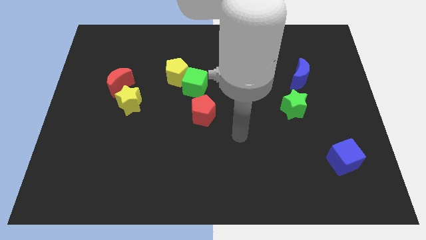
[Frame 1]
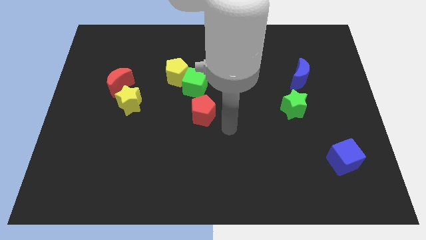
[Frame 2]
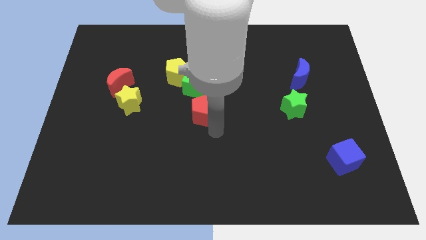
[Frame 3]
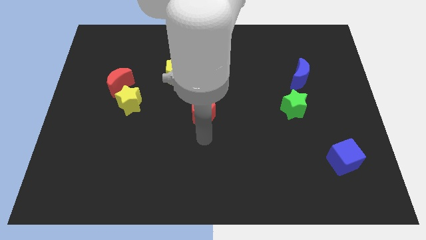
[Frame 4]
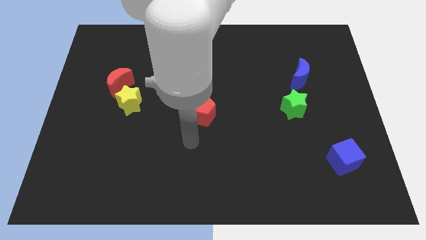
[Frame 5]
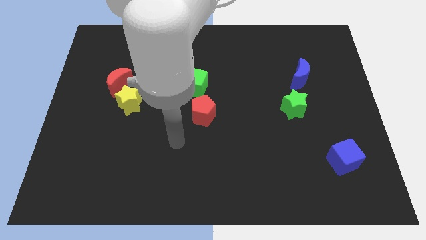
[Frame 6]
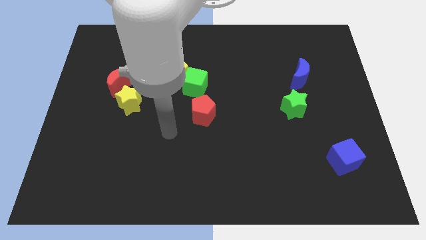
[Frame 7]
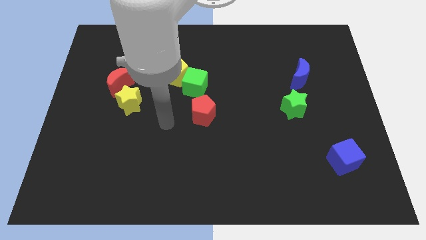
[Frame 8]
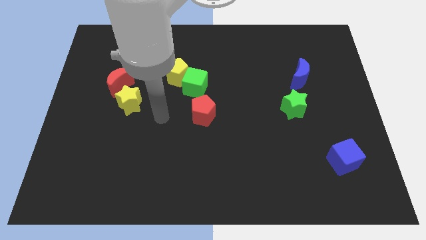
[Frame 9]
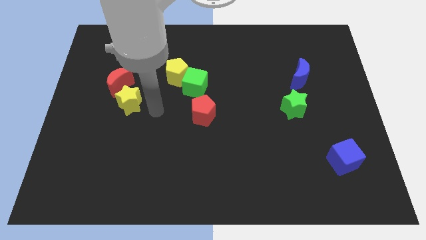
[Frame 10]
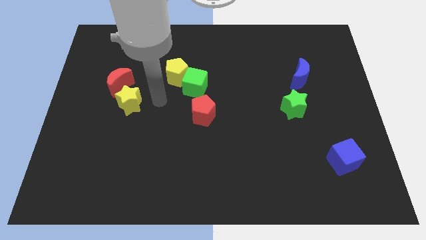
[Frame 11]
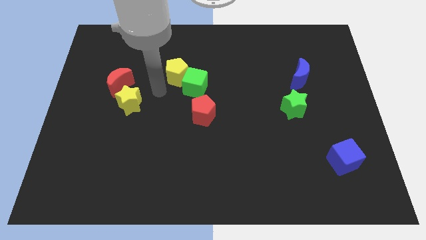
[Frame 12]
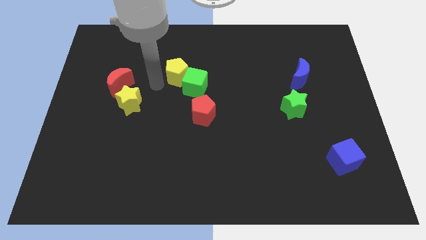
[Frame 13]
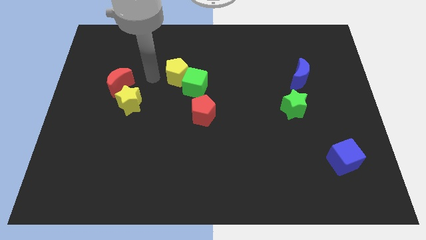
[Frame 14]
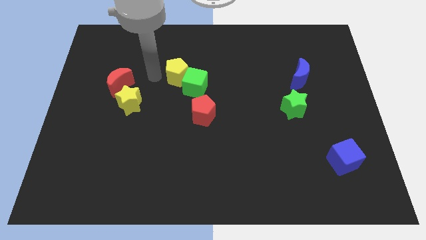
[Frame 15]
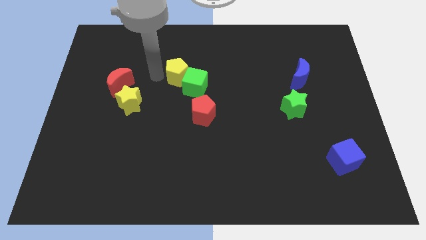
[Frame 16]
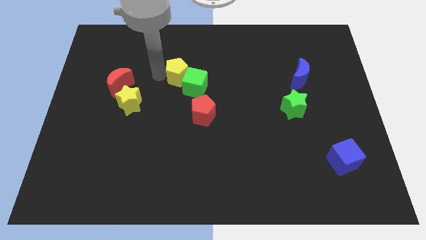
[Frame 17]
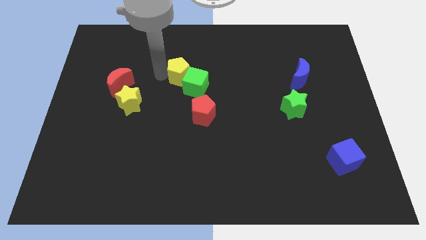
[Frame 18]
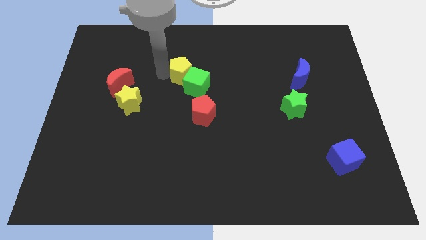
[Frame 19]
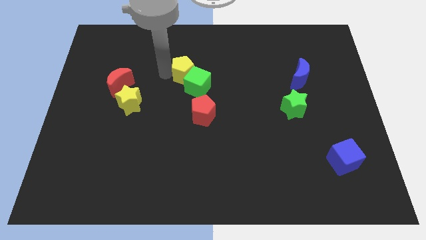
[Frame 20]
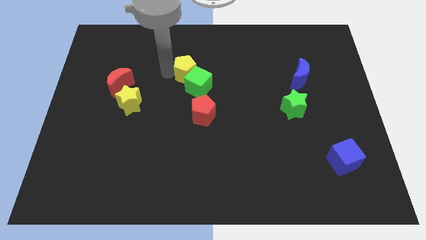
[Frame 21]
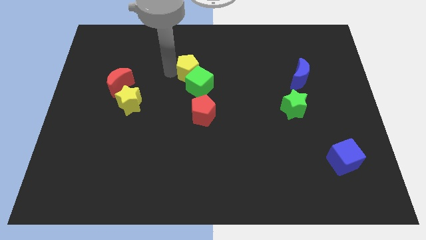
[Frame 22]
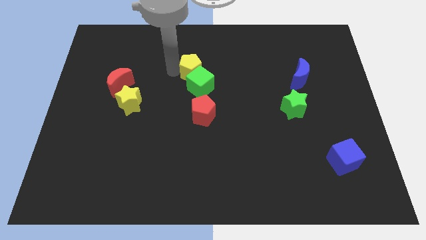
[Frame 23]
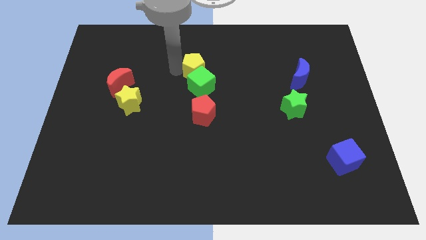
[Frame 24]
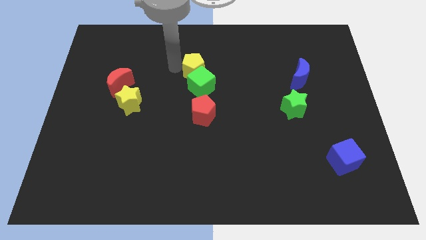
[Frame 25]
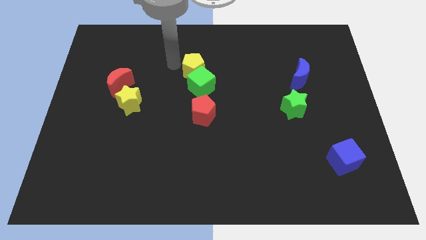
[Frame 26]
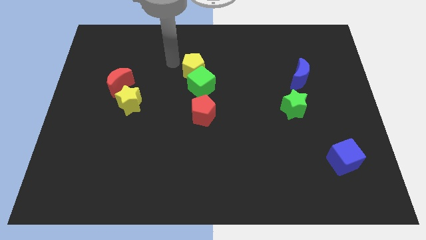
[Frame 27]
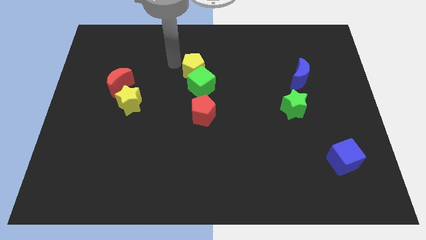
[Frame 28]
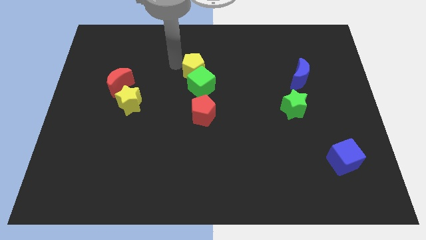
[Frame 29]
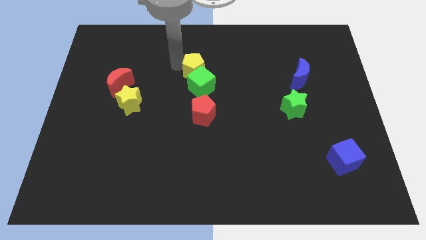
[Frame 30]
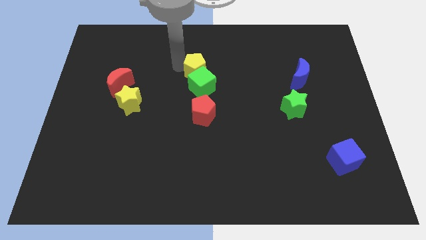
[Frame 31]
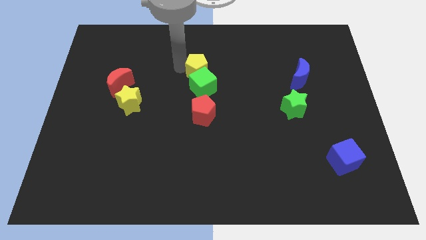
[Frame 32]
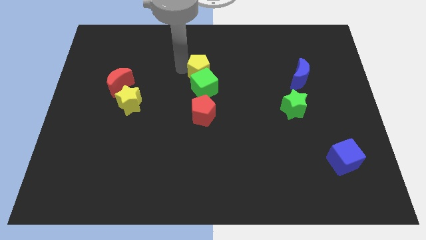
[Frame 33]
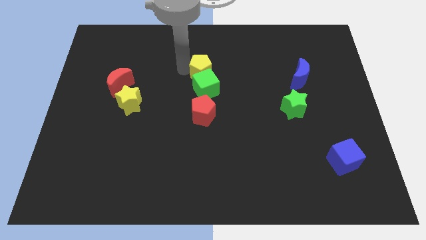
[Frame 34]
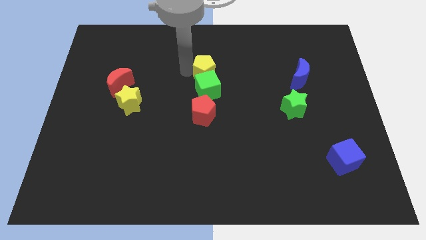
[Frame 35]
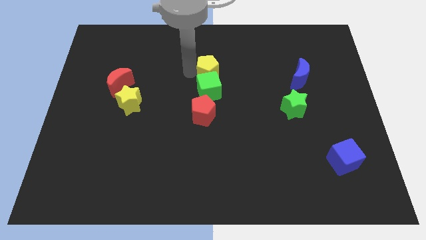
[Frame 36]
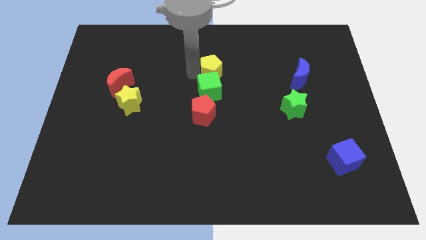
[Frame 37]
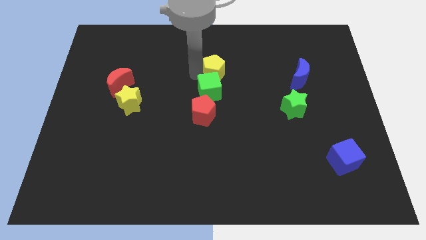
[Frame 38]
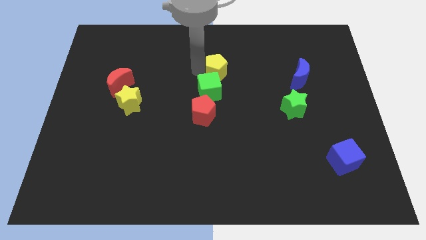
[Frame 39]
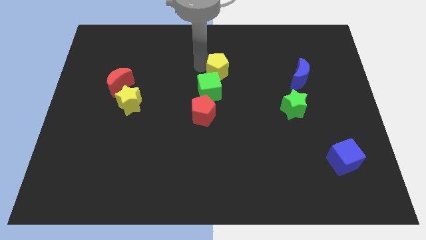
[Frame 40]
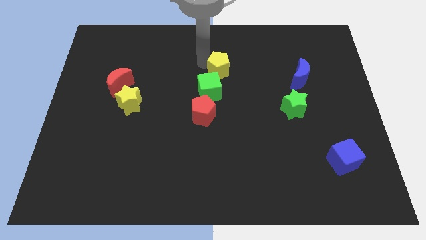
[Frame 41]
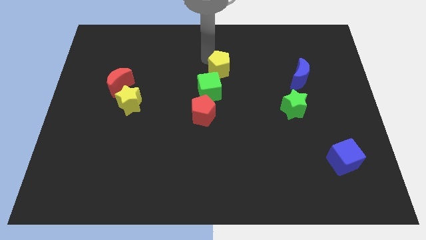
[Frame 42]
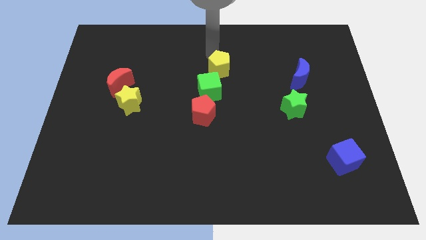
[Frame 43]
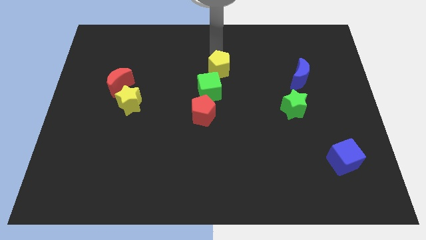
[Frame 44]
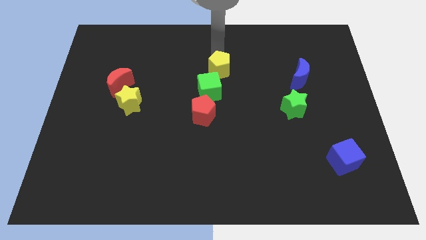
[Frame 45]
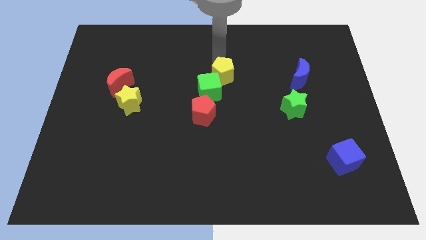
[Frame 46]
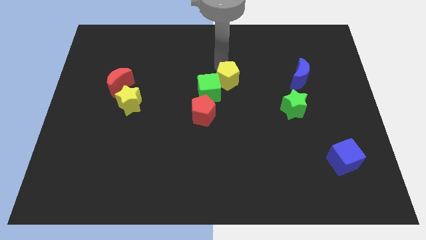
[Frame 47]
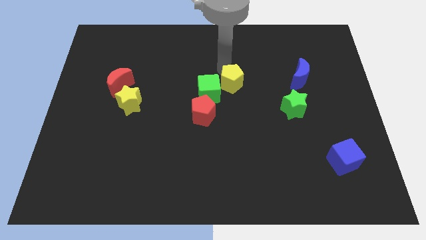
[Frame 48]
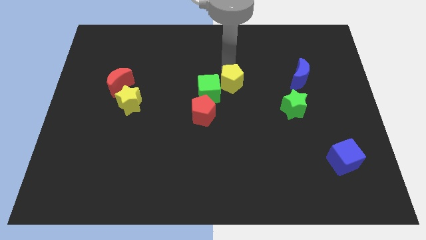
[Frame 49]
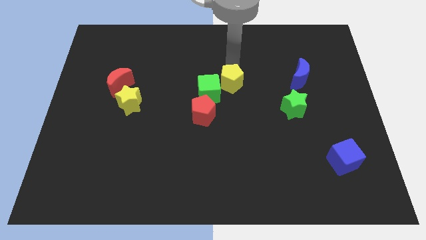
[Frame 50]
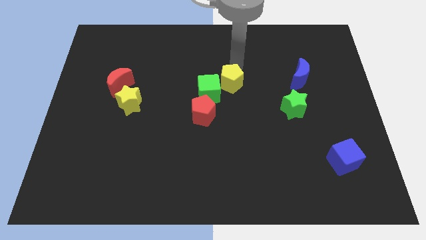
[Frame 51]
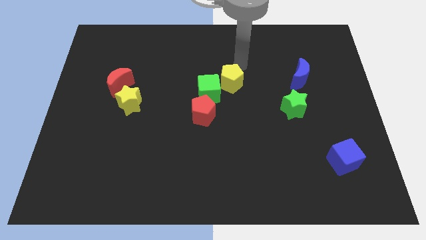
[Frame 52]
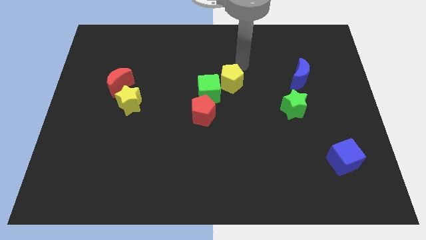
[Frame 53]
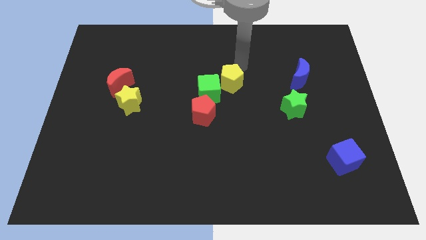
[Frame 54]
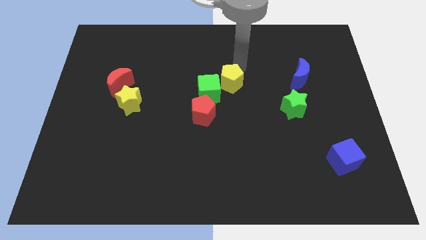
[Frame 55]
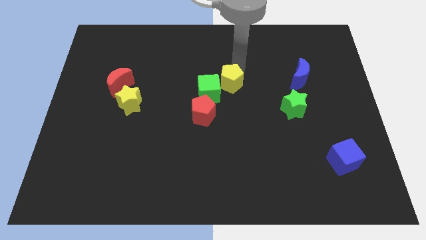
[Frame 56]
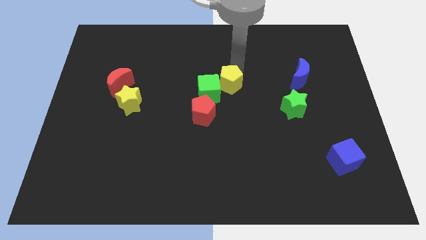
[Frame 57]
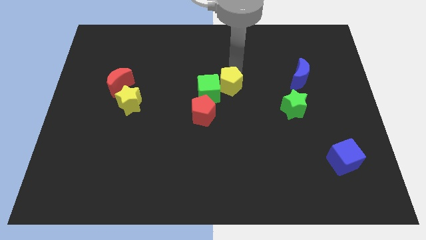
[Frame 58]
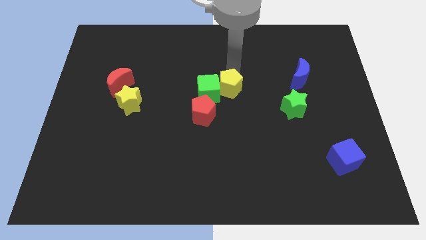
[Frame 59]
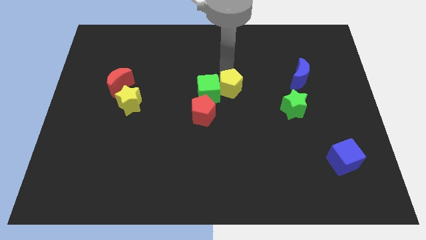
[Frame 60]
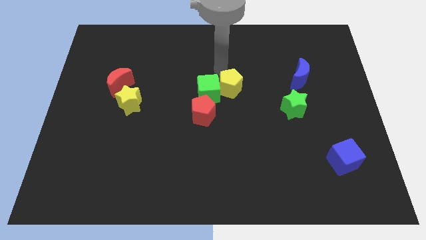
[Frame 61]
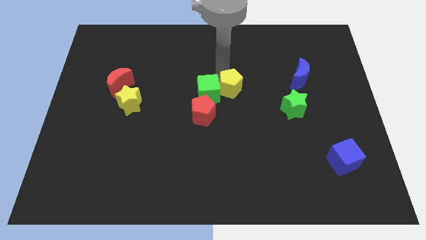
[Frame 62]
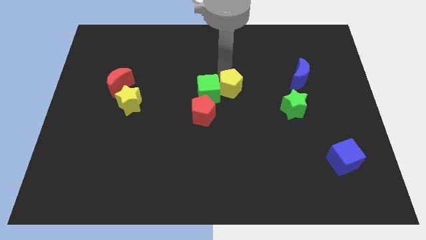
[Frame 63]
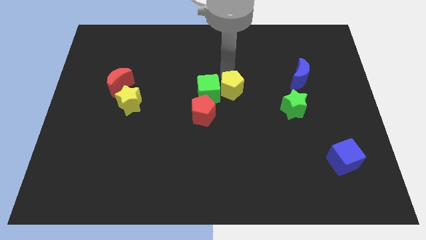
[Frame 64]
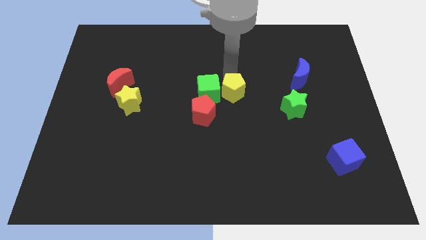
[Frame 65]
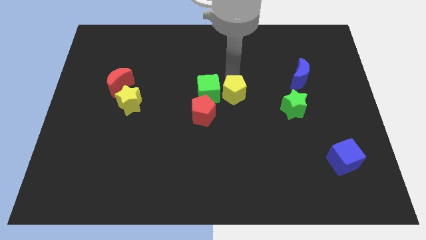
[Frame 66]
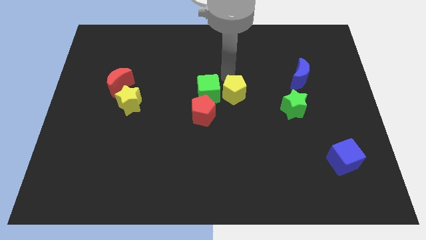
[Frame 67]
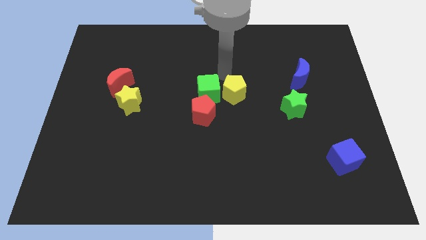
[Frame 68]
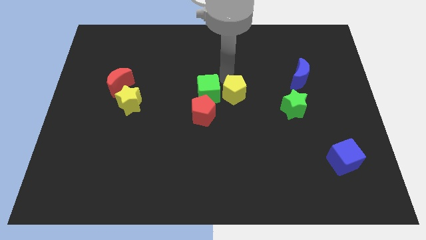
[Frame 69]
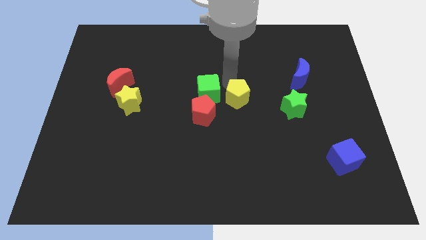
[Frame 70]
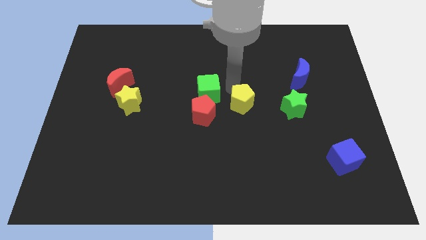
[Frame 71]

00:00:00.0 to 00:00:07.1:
slide the yellow pentagon just right of the red pentagon
